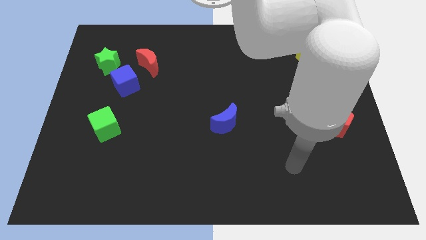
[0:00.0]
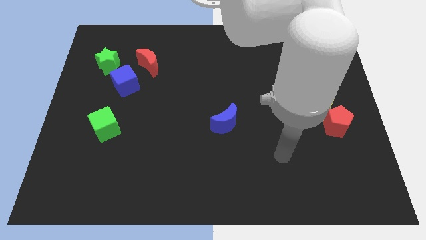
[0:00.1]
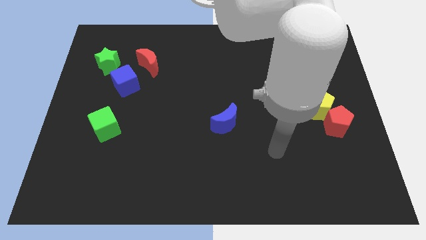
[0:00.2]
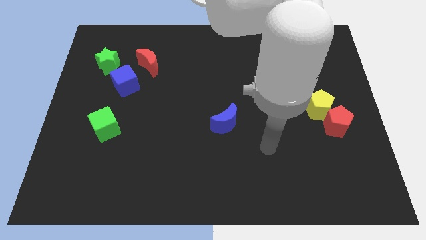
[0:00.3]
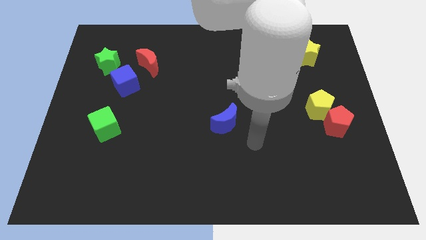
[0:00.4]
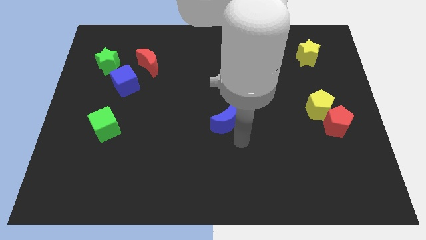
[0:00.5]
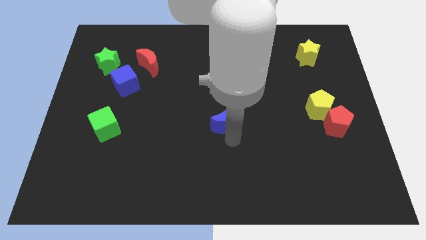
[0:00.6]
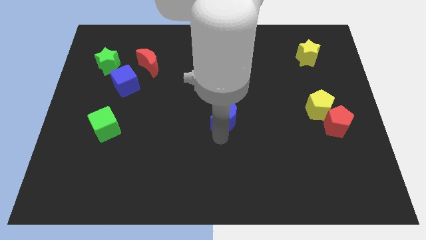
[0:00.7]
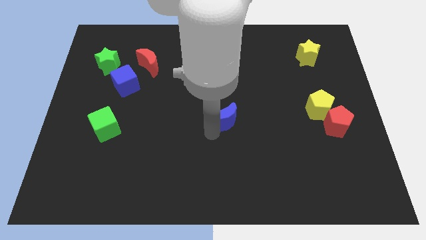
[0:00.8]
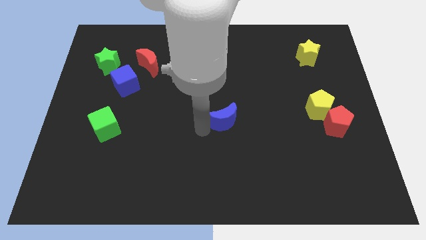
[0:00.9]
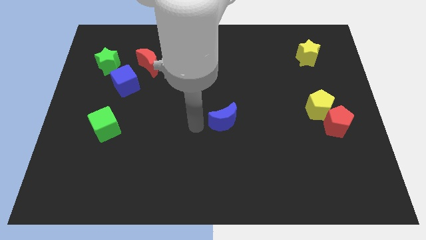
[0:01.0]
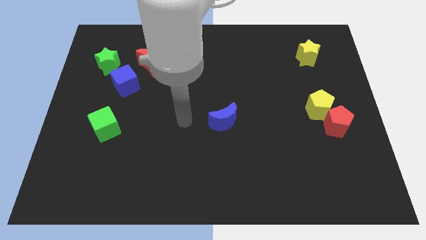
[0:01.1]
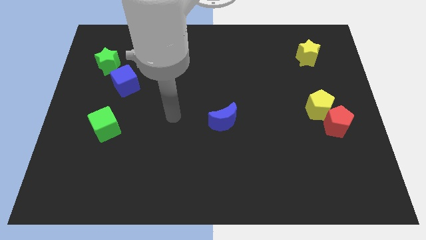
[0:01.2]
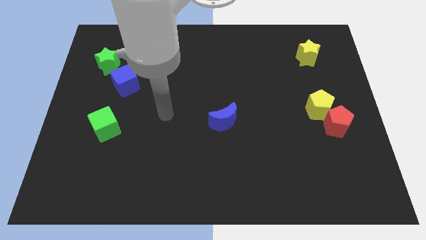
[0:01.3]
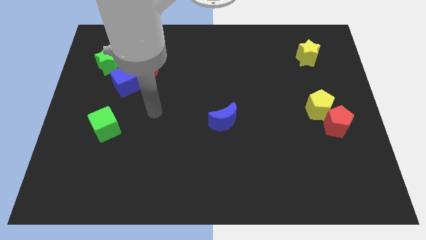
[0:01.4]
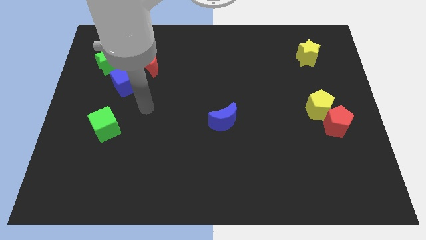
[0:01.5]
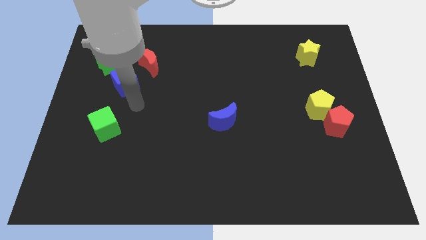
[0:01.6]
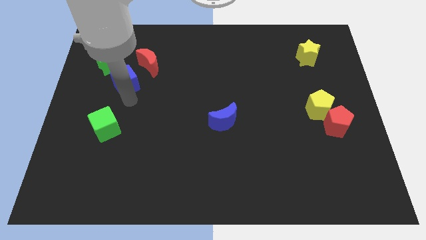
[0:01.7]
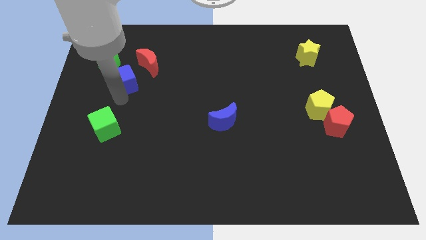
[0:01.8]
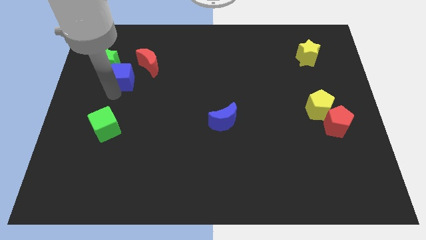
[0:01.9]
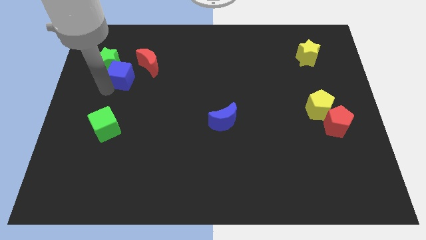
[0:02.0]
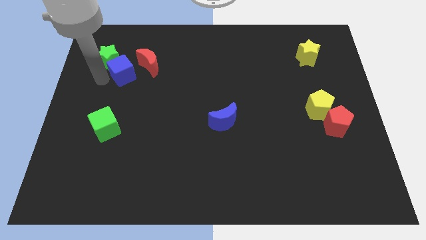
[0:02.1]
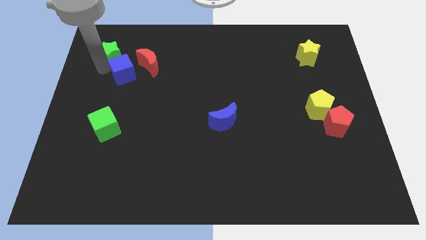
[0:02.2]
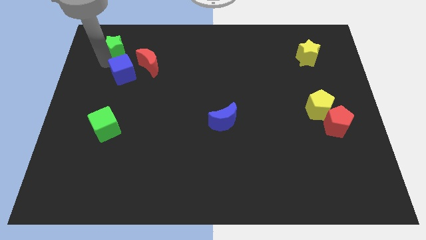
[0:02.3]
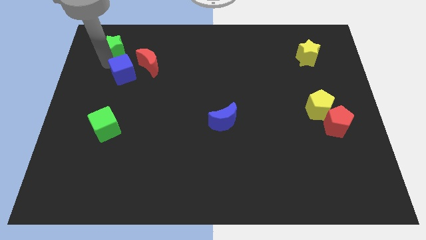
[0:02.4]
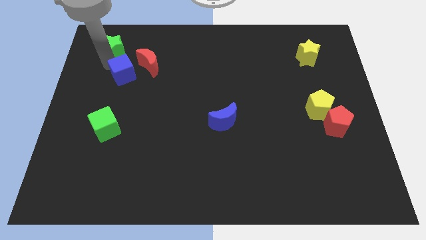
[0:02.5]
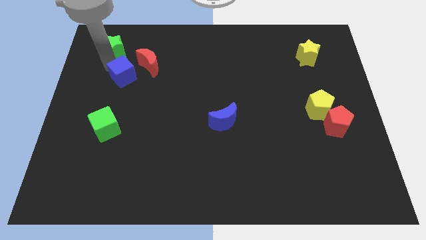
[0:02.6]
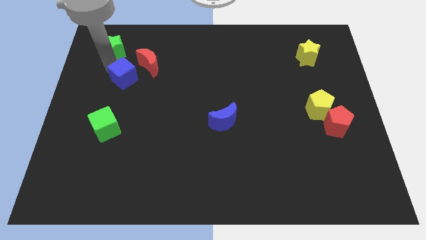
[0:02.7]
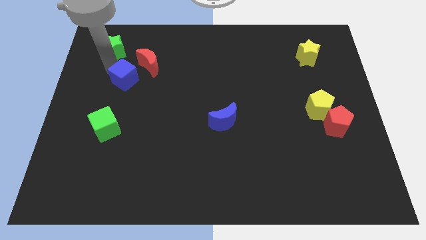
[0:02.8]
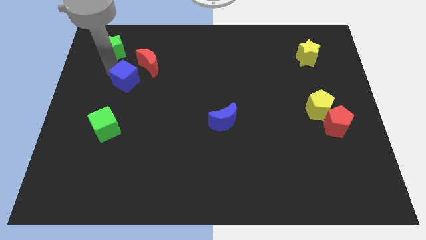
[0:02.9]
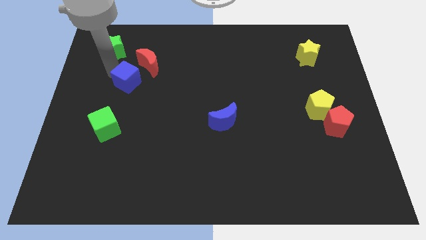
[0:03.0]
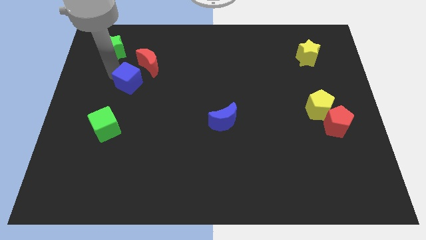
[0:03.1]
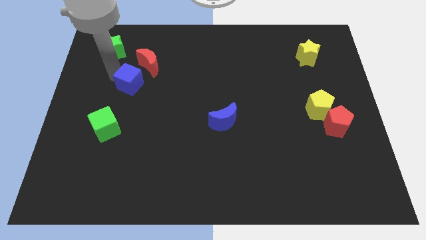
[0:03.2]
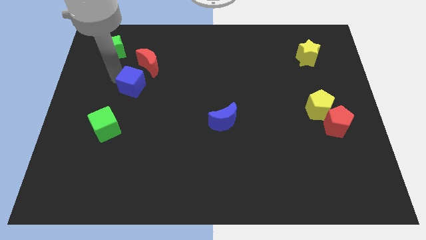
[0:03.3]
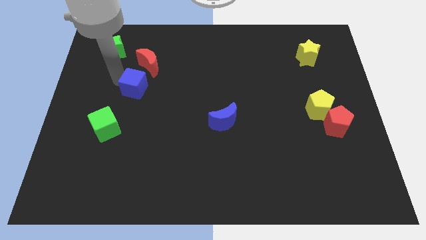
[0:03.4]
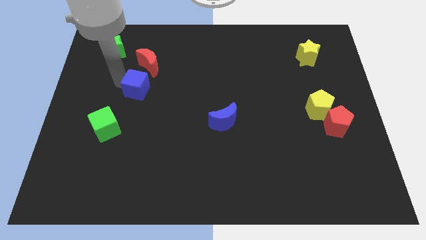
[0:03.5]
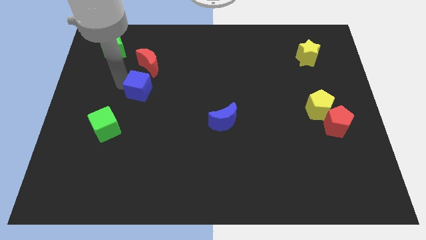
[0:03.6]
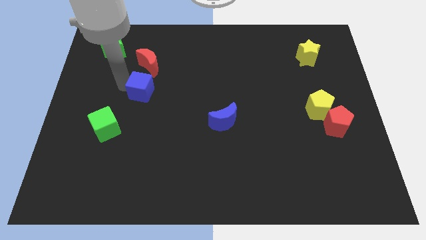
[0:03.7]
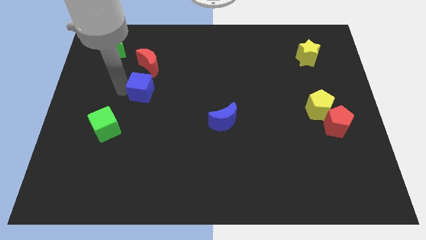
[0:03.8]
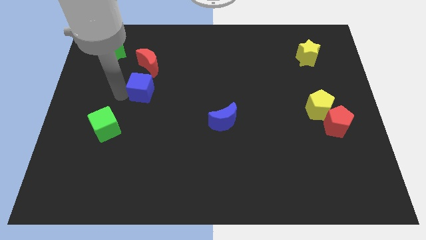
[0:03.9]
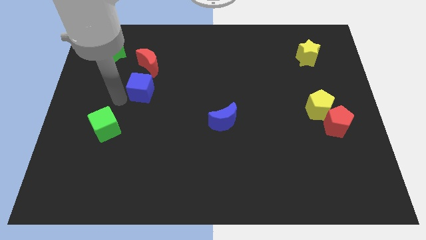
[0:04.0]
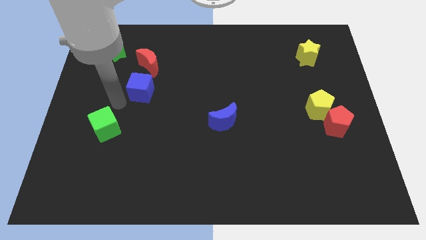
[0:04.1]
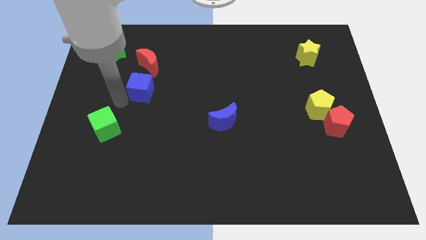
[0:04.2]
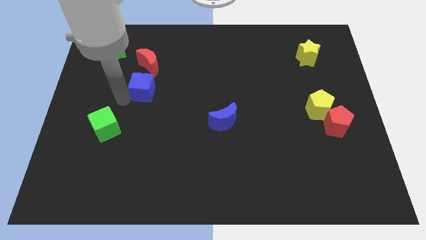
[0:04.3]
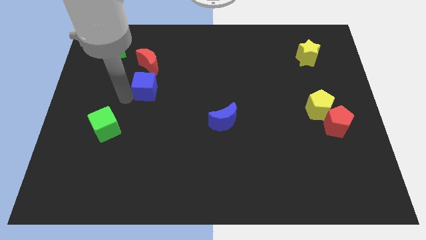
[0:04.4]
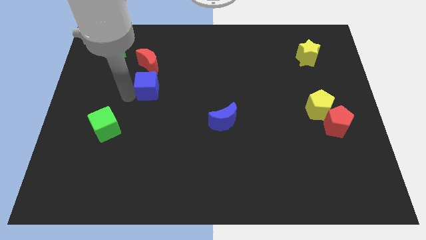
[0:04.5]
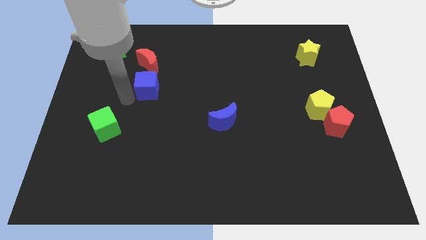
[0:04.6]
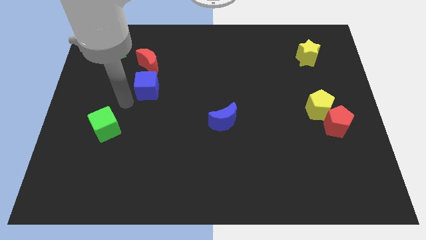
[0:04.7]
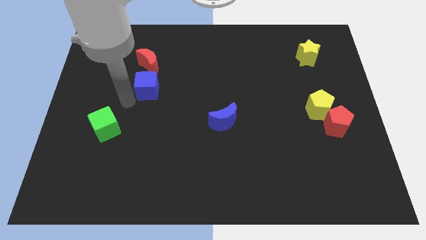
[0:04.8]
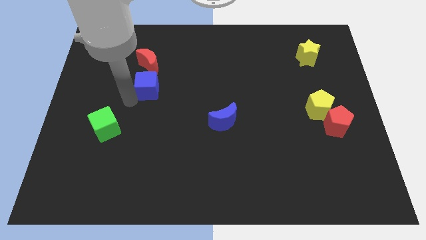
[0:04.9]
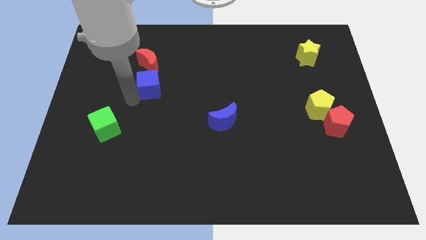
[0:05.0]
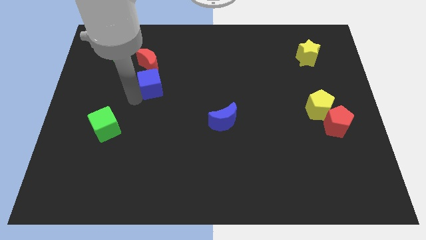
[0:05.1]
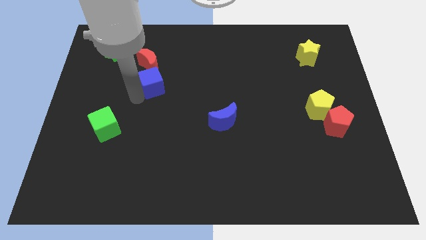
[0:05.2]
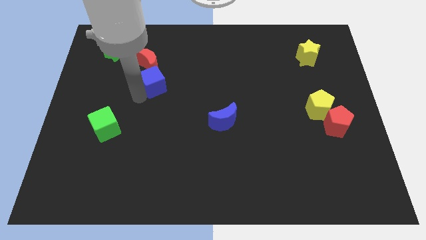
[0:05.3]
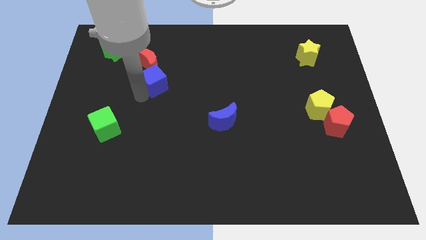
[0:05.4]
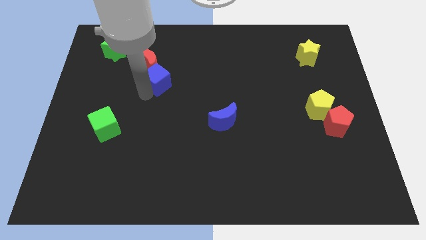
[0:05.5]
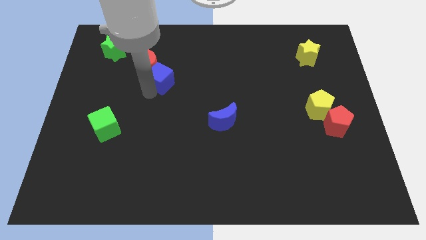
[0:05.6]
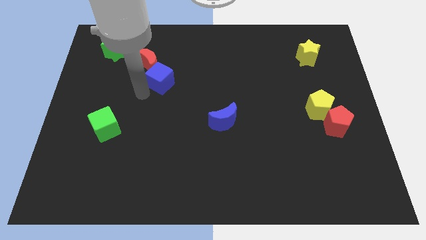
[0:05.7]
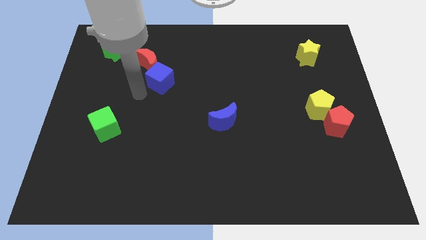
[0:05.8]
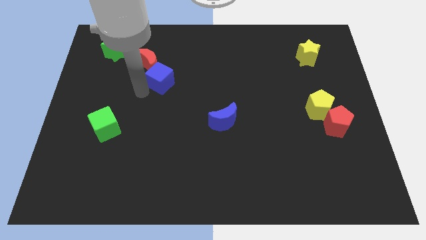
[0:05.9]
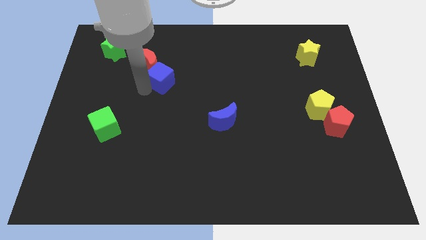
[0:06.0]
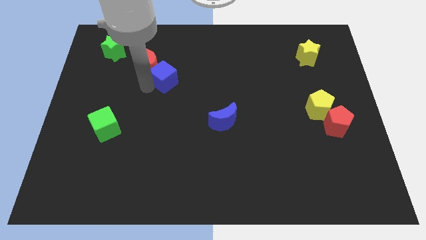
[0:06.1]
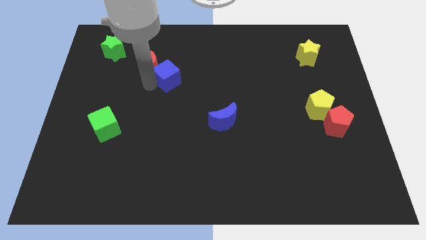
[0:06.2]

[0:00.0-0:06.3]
slide the blue cube to the right side of the red moon

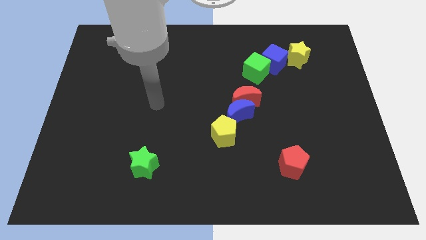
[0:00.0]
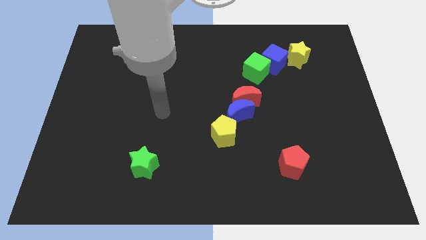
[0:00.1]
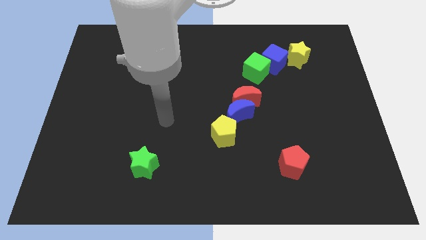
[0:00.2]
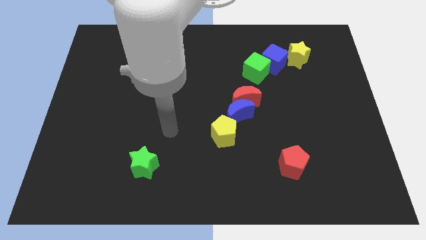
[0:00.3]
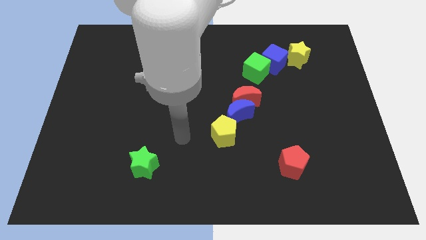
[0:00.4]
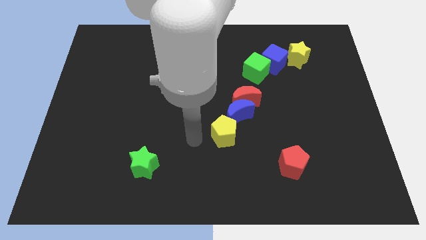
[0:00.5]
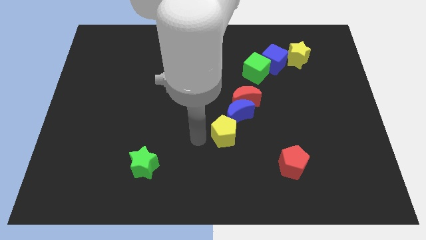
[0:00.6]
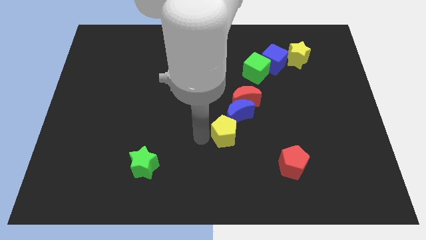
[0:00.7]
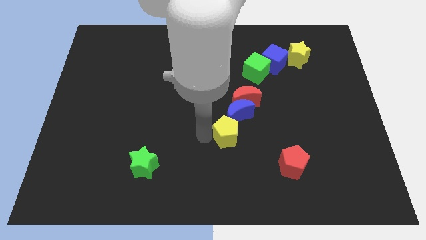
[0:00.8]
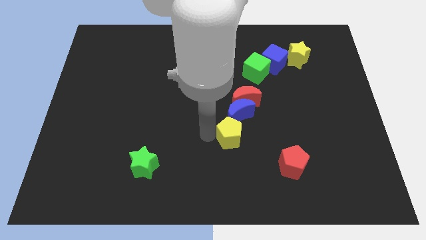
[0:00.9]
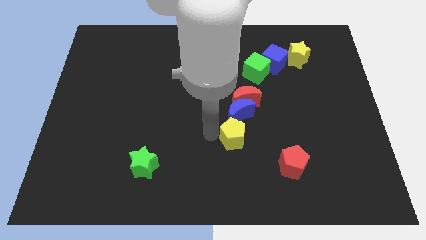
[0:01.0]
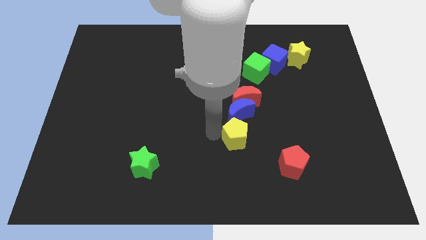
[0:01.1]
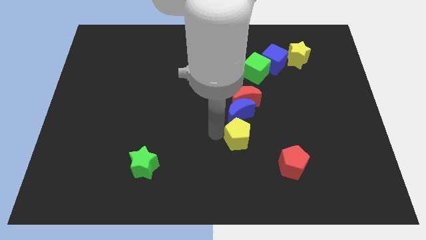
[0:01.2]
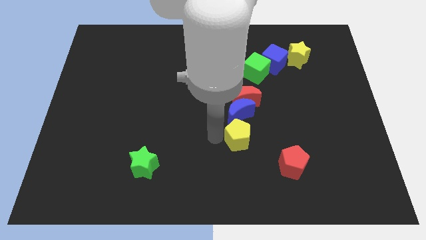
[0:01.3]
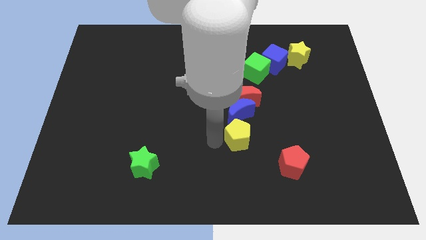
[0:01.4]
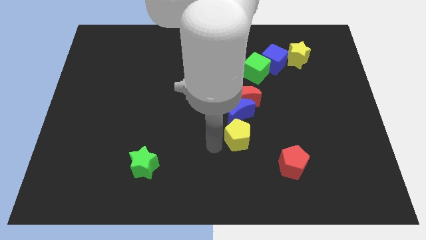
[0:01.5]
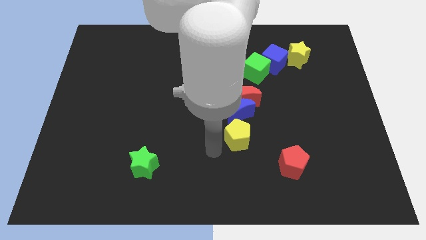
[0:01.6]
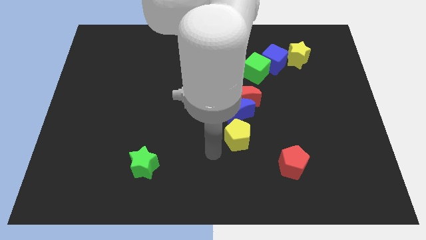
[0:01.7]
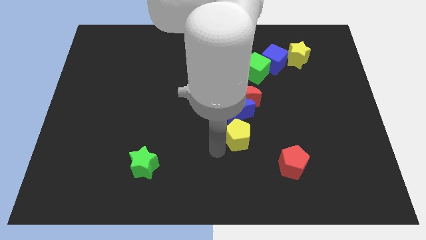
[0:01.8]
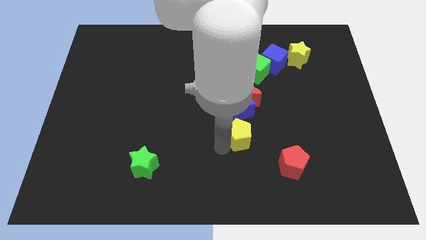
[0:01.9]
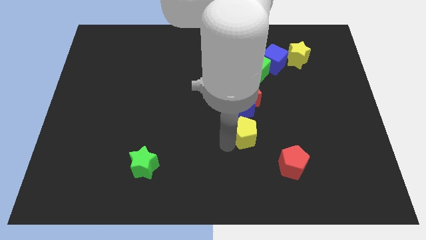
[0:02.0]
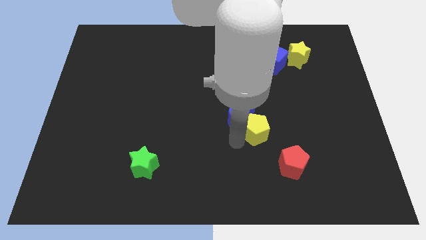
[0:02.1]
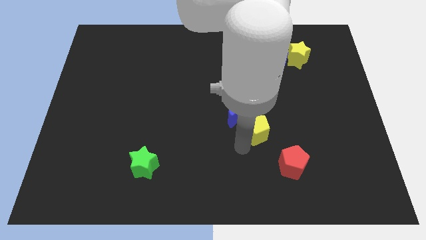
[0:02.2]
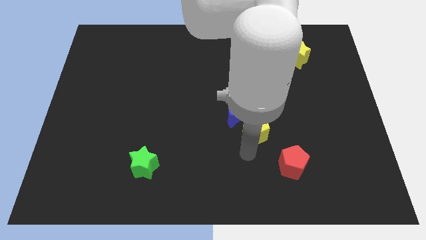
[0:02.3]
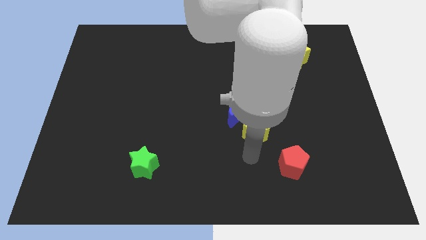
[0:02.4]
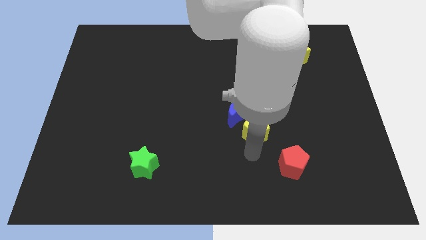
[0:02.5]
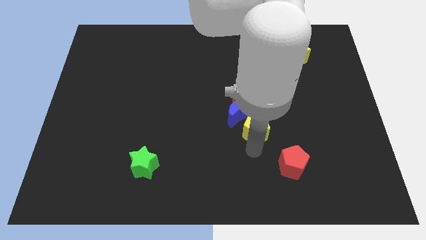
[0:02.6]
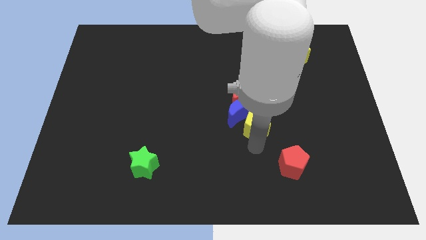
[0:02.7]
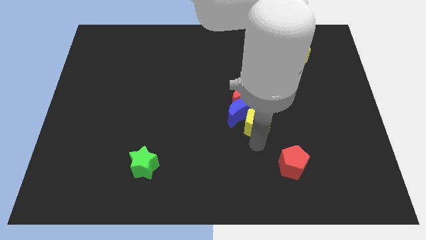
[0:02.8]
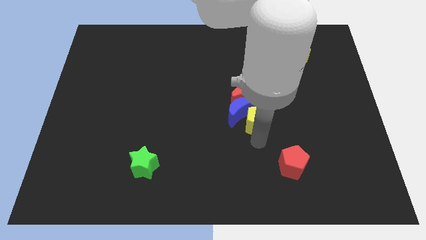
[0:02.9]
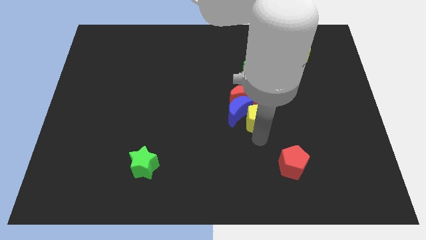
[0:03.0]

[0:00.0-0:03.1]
move the yellow pentagon below the green cube
